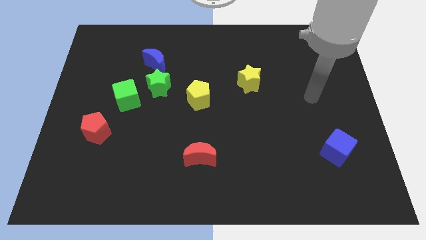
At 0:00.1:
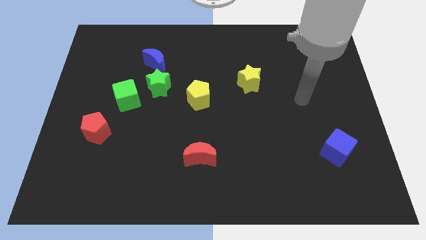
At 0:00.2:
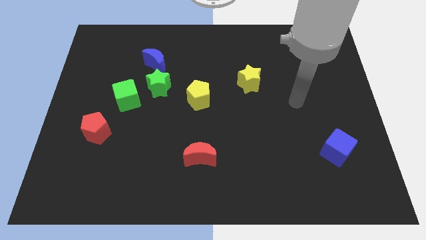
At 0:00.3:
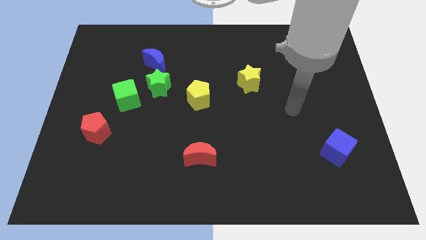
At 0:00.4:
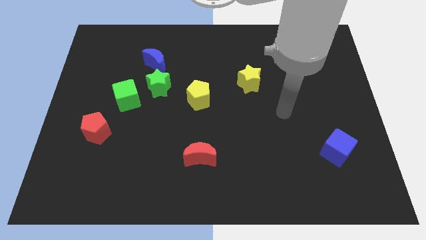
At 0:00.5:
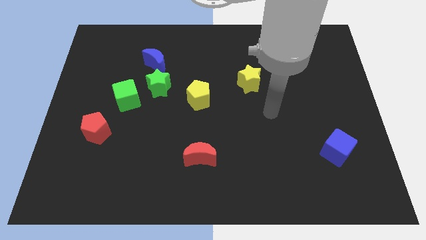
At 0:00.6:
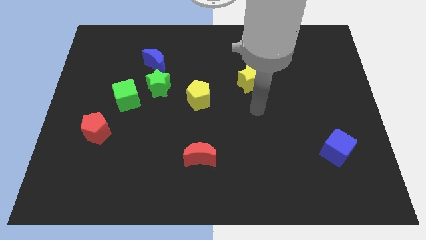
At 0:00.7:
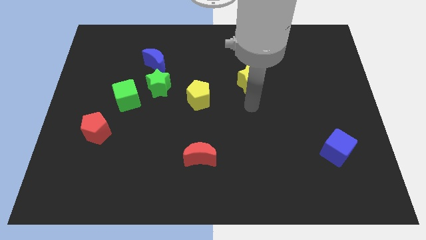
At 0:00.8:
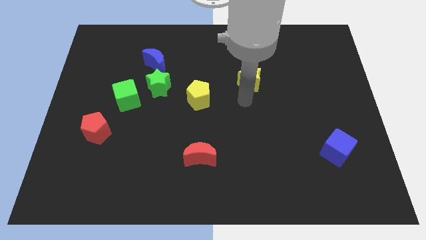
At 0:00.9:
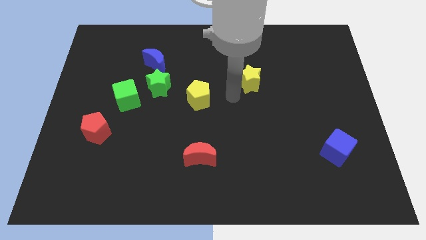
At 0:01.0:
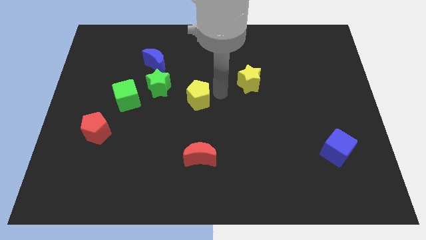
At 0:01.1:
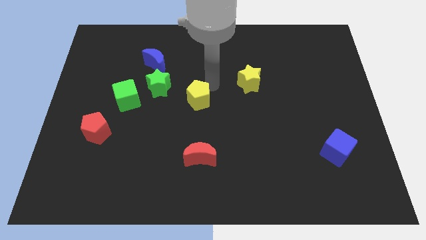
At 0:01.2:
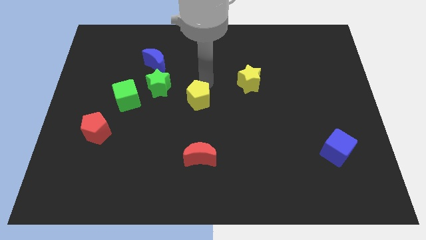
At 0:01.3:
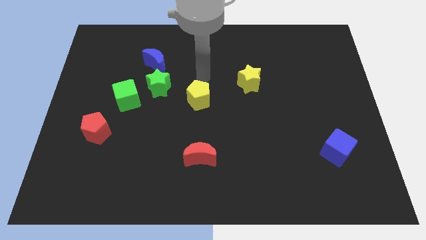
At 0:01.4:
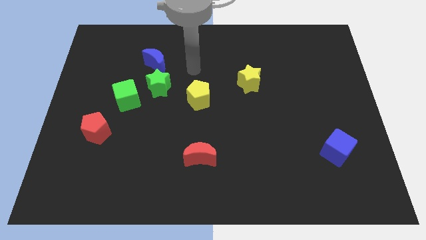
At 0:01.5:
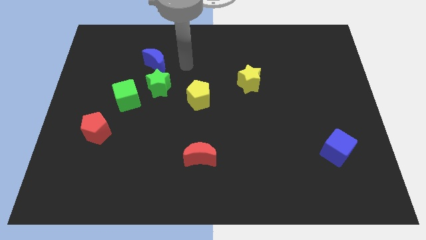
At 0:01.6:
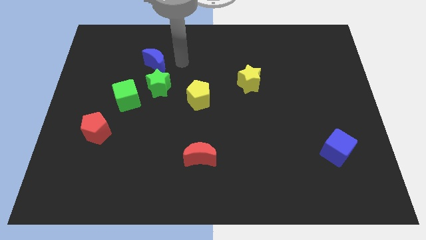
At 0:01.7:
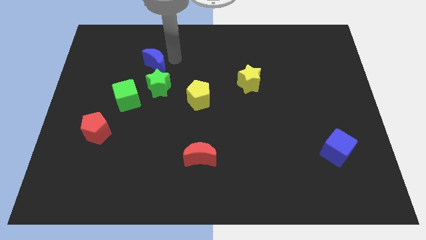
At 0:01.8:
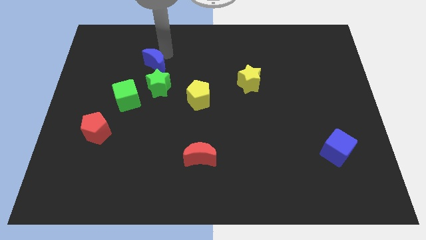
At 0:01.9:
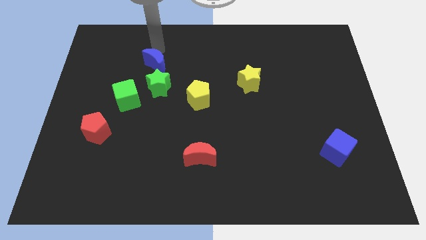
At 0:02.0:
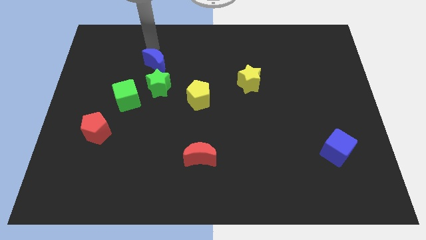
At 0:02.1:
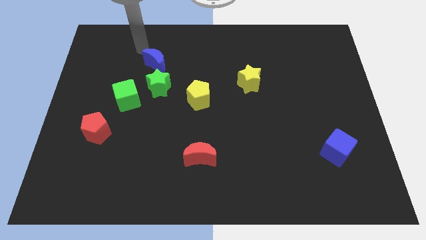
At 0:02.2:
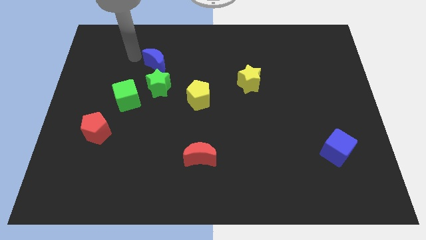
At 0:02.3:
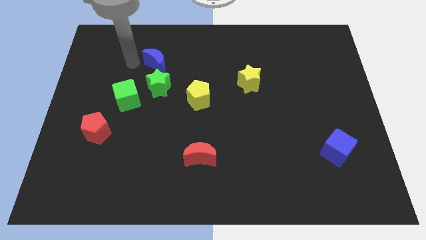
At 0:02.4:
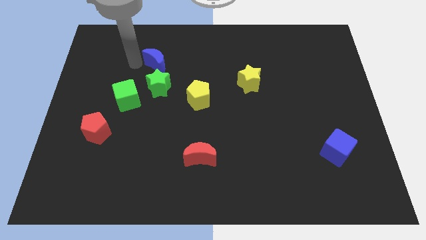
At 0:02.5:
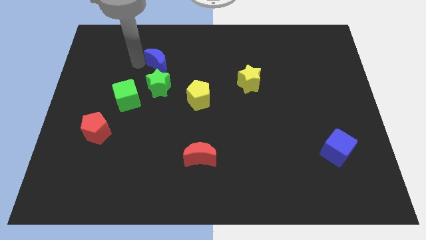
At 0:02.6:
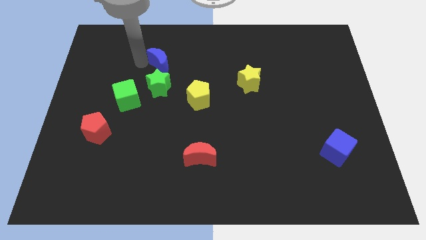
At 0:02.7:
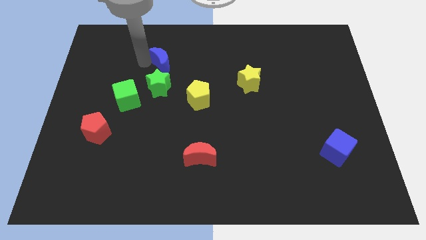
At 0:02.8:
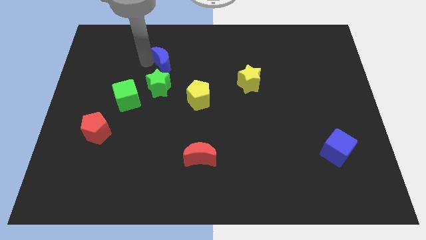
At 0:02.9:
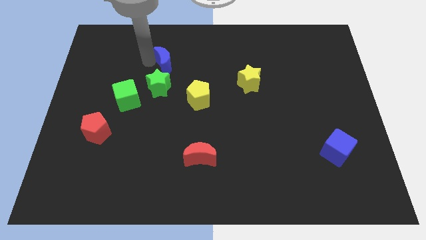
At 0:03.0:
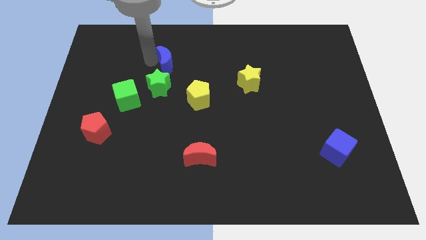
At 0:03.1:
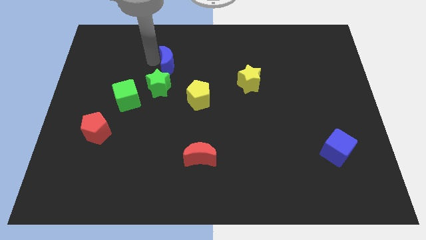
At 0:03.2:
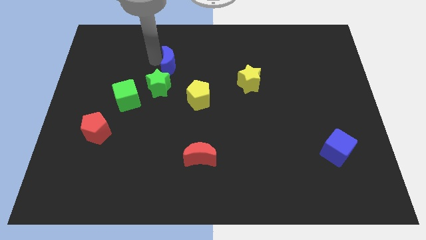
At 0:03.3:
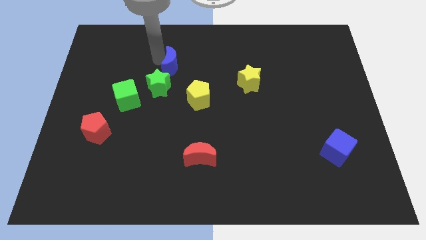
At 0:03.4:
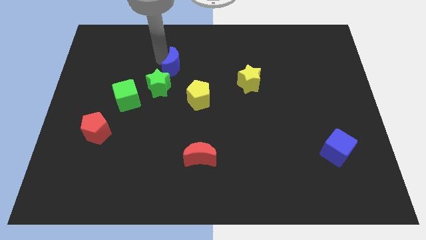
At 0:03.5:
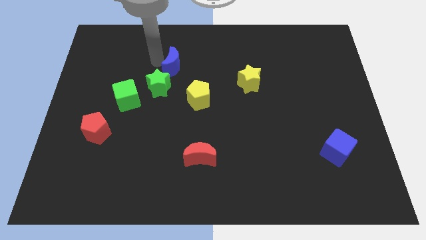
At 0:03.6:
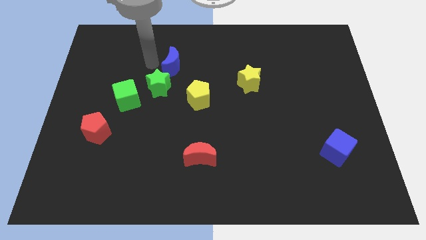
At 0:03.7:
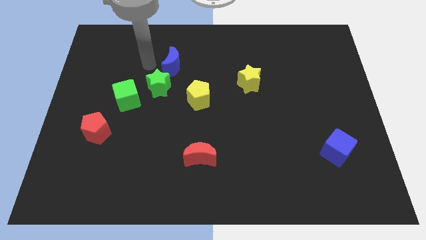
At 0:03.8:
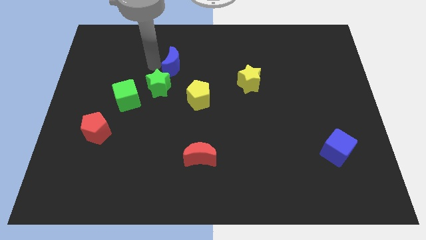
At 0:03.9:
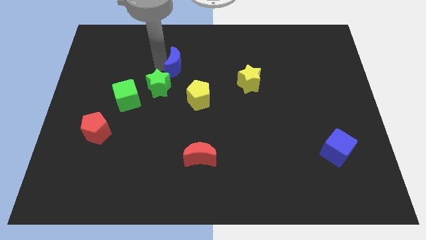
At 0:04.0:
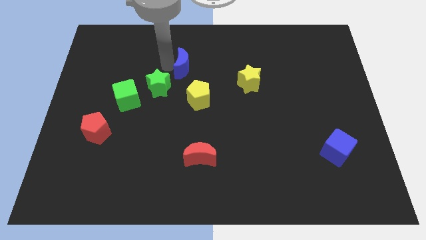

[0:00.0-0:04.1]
slide the blue moon to the top of the yellow pentagon

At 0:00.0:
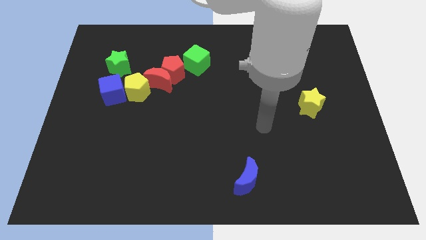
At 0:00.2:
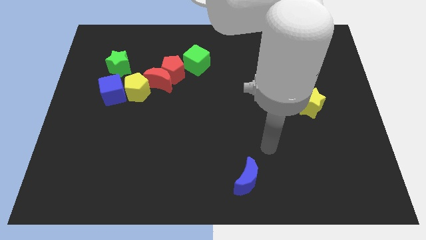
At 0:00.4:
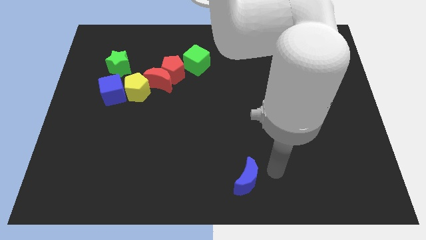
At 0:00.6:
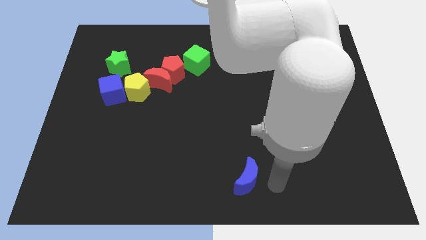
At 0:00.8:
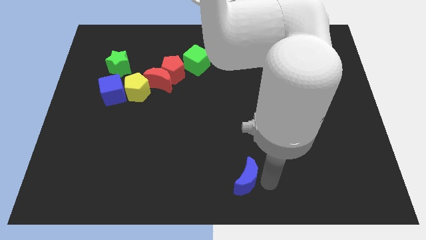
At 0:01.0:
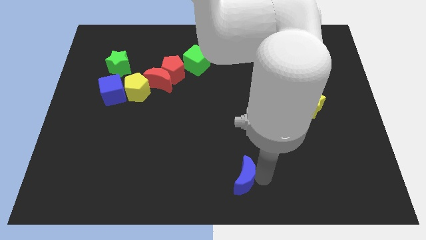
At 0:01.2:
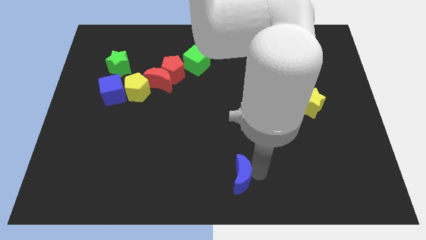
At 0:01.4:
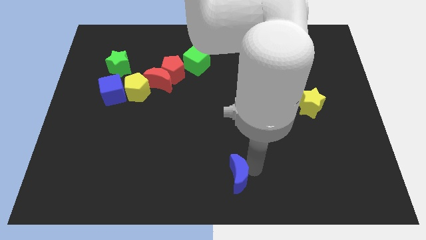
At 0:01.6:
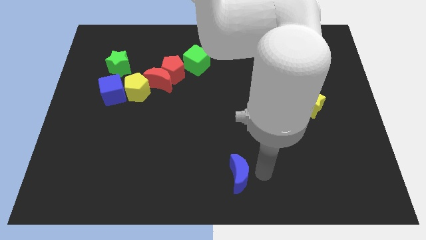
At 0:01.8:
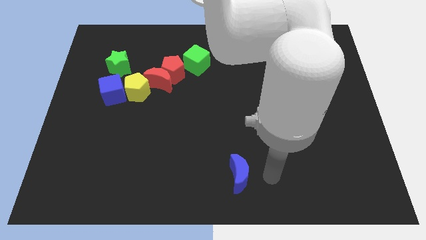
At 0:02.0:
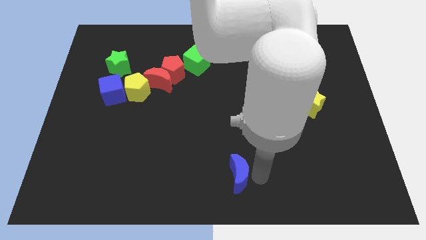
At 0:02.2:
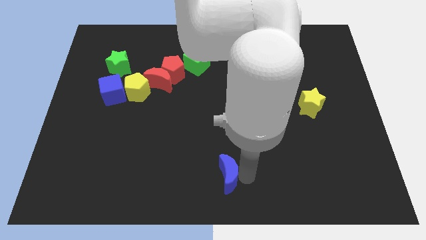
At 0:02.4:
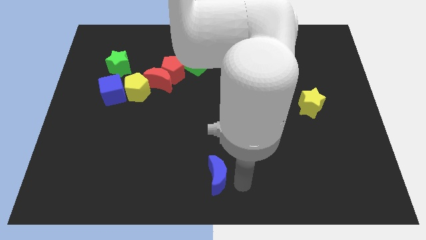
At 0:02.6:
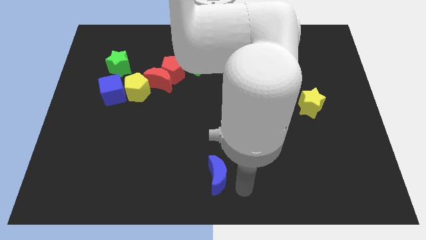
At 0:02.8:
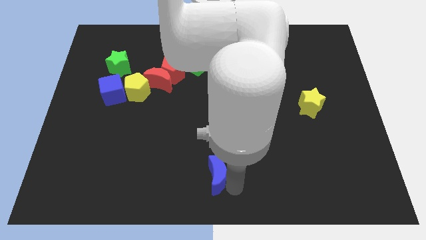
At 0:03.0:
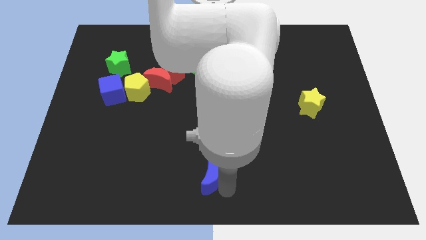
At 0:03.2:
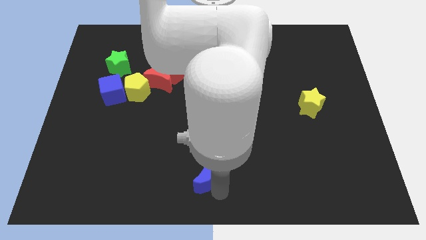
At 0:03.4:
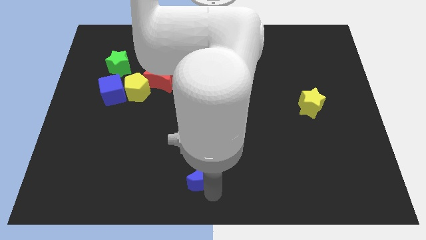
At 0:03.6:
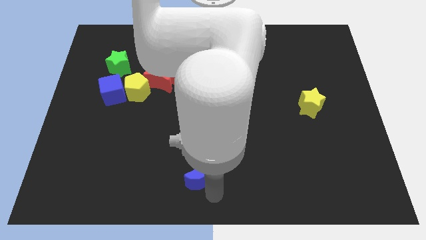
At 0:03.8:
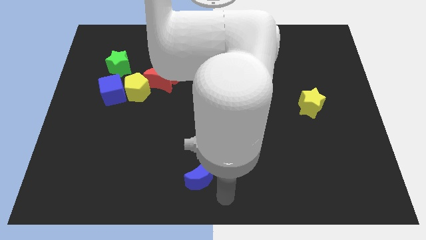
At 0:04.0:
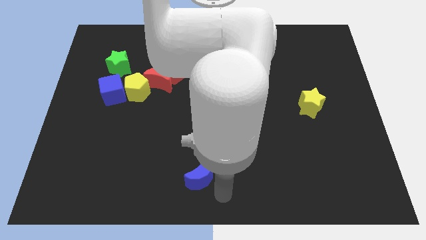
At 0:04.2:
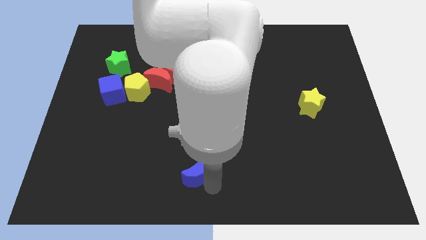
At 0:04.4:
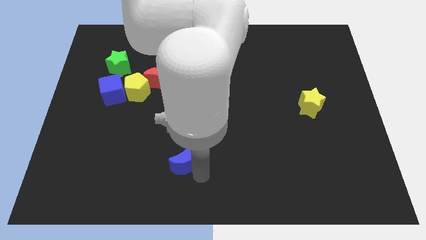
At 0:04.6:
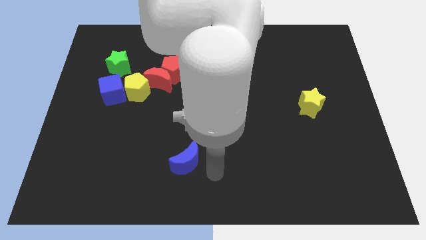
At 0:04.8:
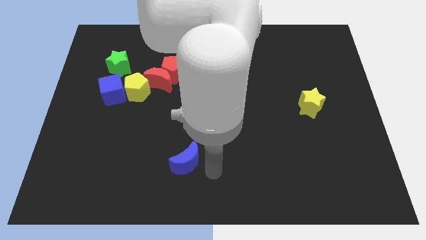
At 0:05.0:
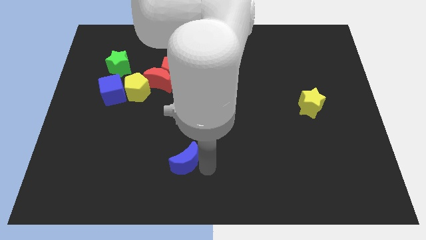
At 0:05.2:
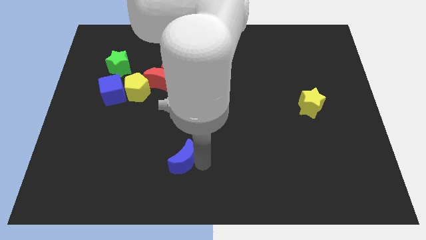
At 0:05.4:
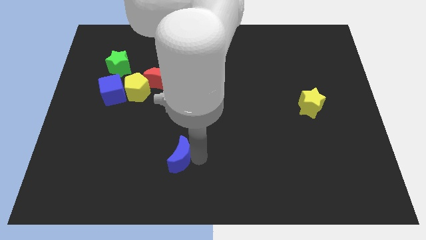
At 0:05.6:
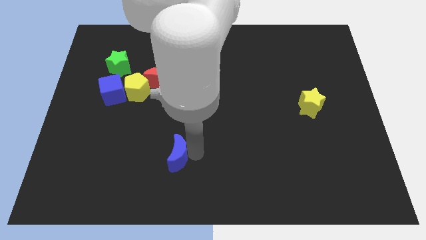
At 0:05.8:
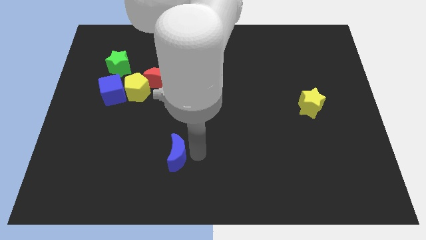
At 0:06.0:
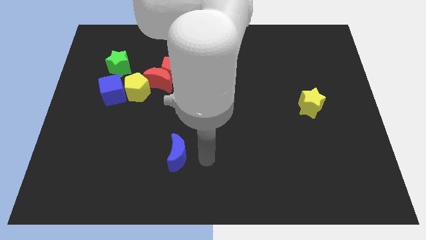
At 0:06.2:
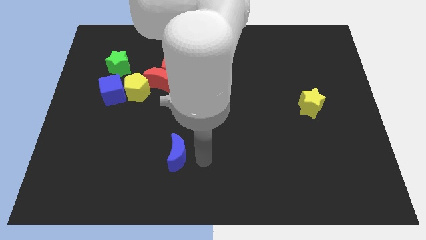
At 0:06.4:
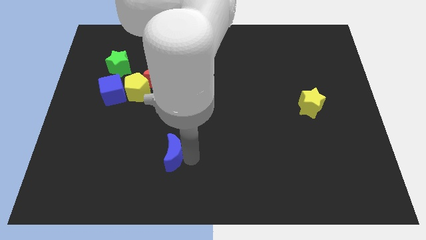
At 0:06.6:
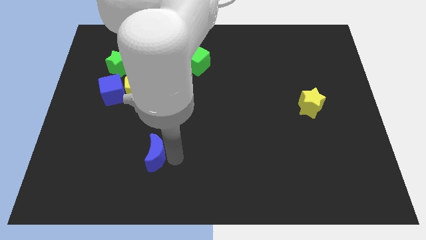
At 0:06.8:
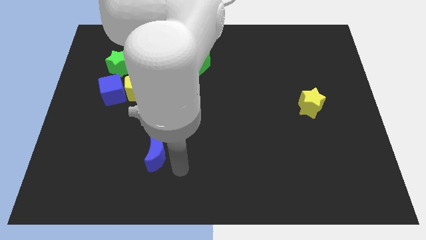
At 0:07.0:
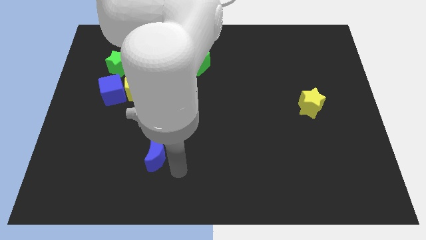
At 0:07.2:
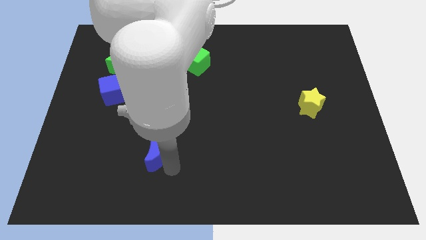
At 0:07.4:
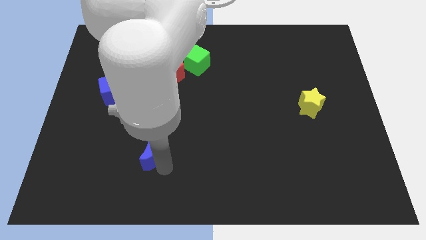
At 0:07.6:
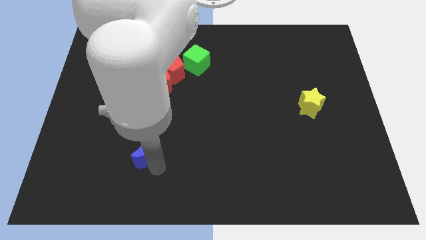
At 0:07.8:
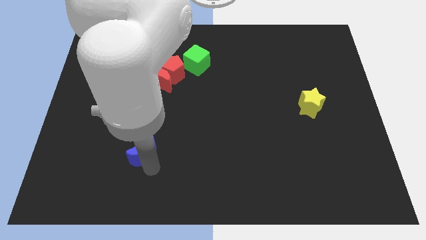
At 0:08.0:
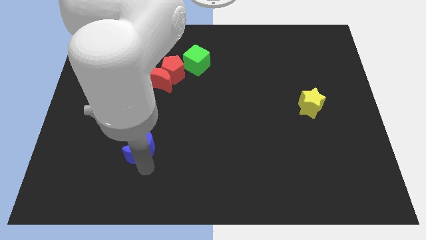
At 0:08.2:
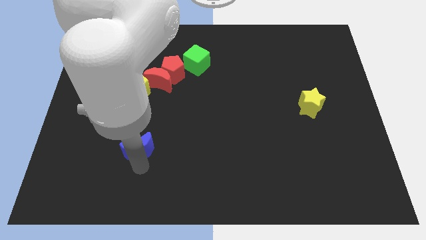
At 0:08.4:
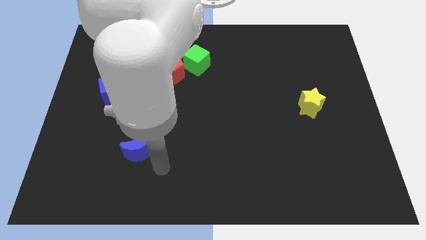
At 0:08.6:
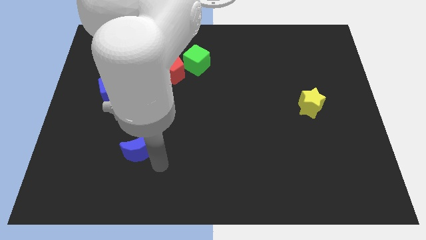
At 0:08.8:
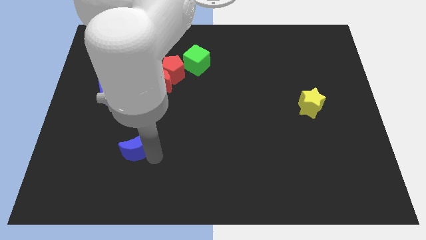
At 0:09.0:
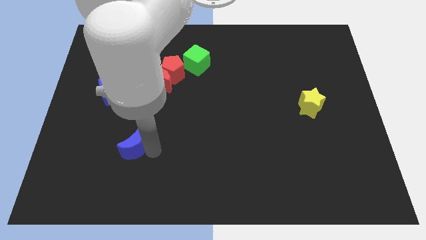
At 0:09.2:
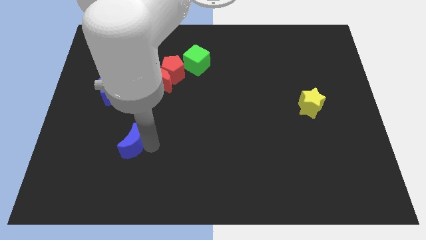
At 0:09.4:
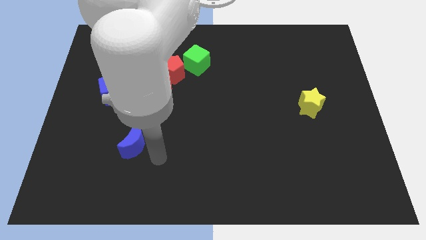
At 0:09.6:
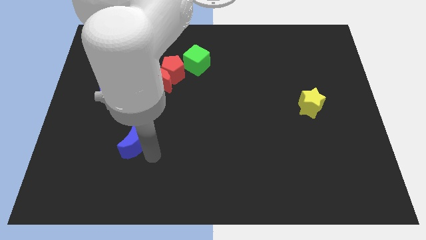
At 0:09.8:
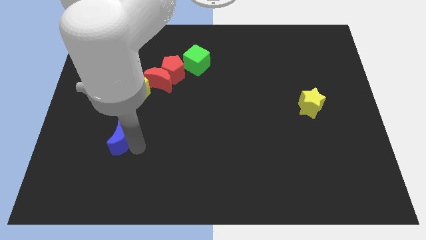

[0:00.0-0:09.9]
put the blue moon to the bottom side of the blue cube
